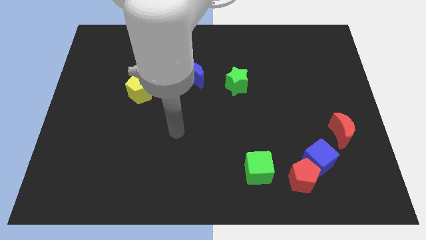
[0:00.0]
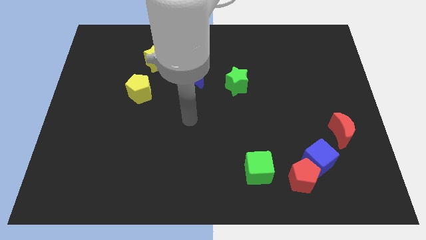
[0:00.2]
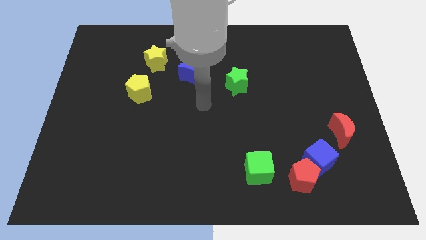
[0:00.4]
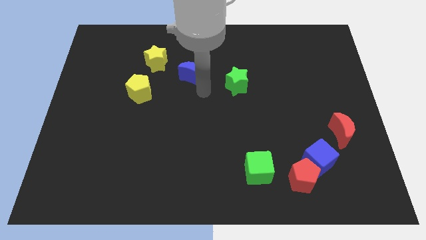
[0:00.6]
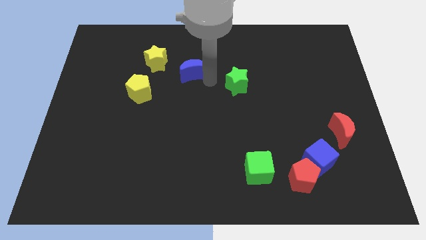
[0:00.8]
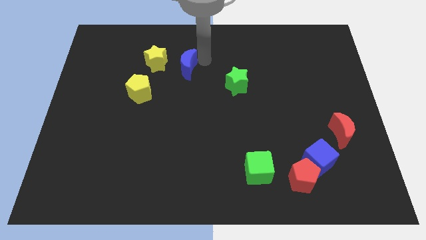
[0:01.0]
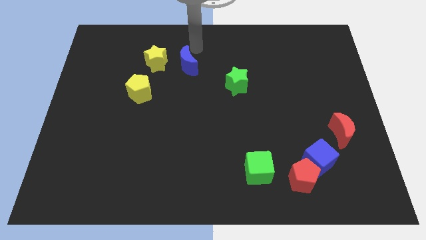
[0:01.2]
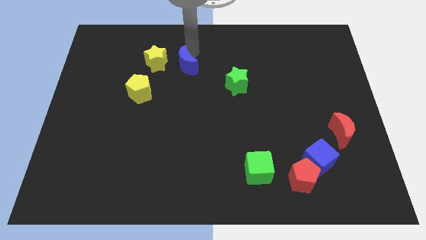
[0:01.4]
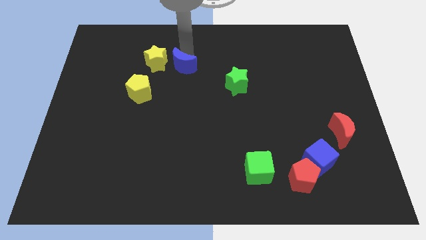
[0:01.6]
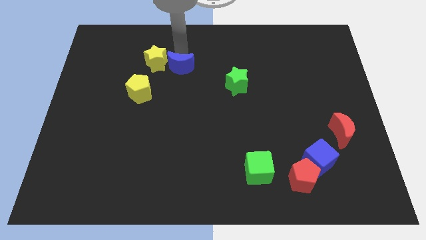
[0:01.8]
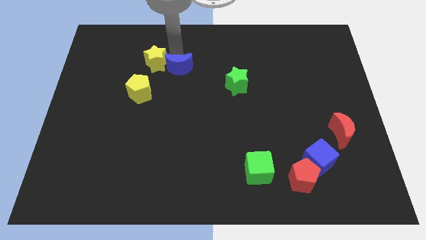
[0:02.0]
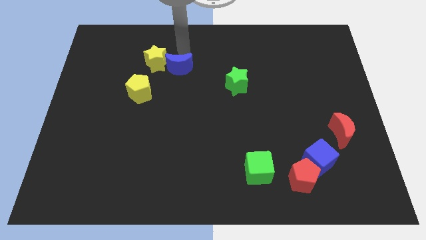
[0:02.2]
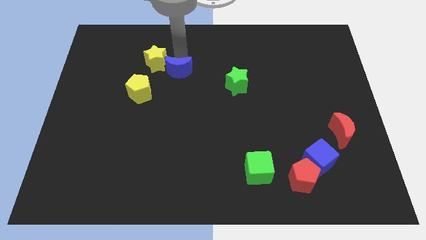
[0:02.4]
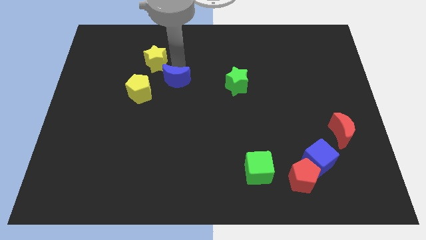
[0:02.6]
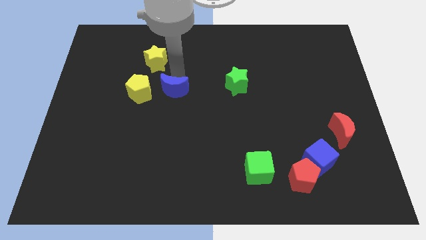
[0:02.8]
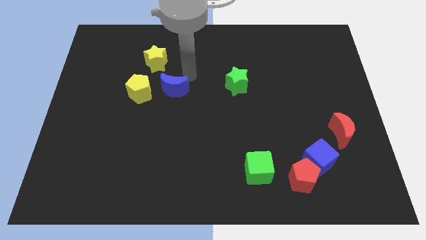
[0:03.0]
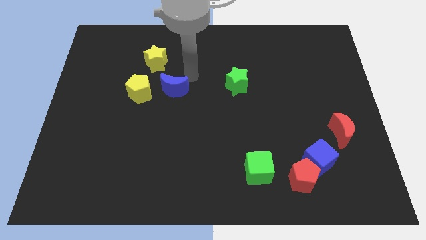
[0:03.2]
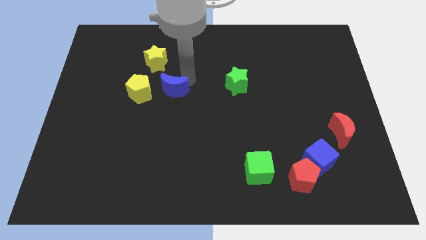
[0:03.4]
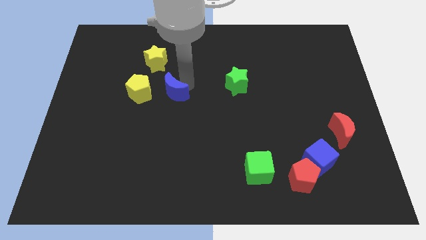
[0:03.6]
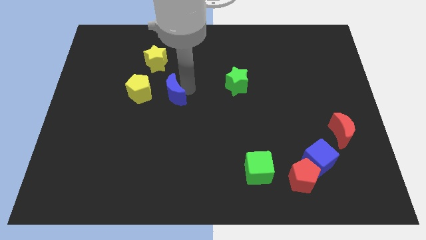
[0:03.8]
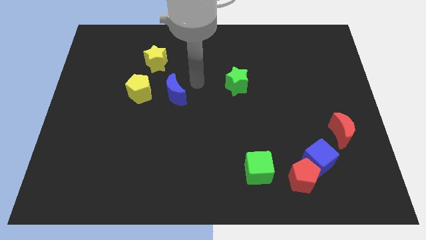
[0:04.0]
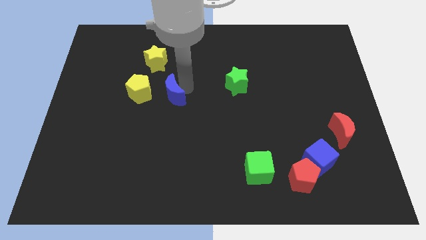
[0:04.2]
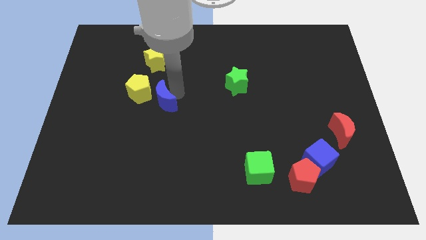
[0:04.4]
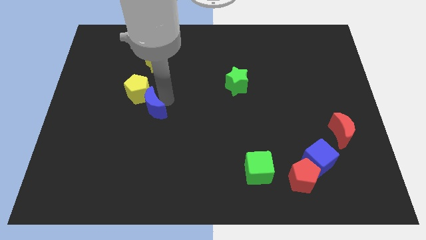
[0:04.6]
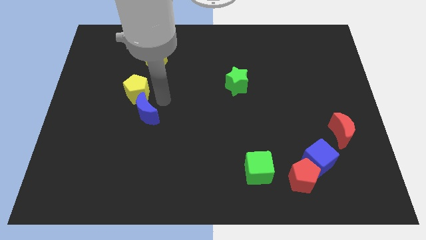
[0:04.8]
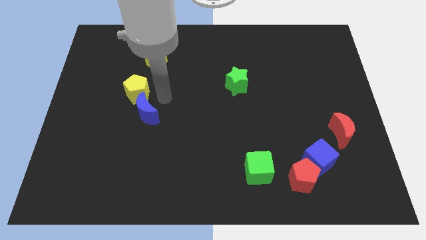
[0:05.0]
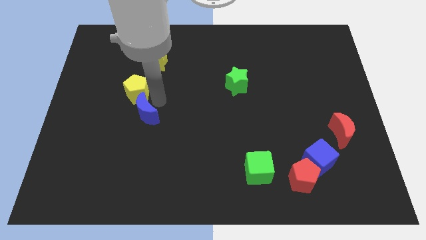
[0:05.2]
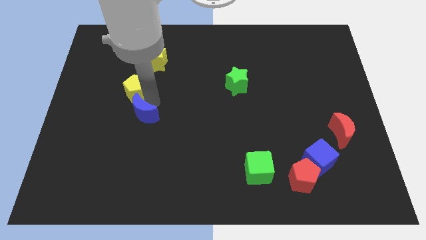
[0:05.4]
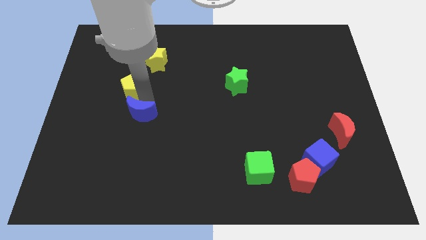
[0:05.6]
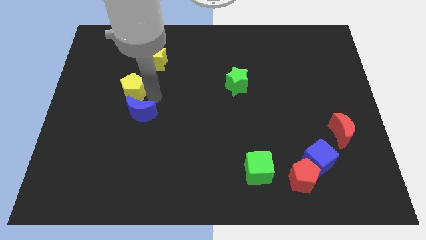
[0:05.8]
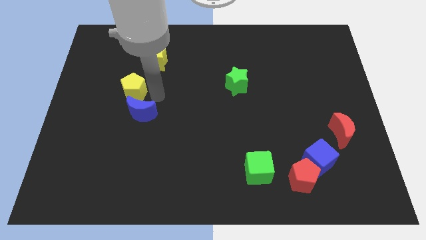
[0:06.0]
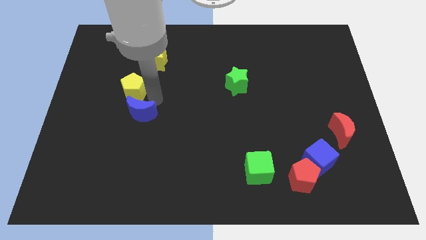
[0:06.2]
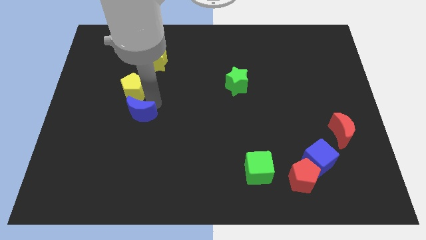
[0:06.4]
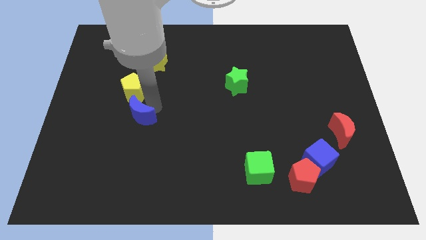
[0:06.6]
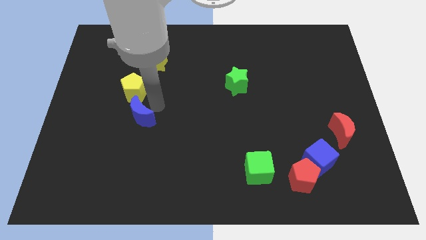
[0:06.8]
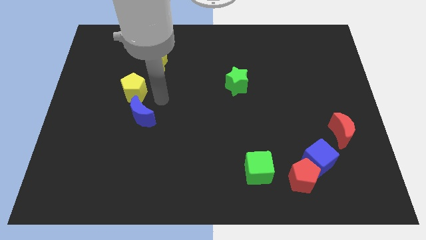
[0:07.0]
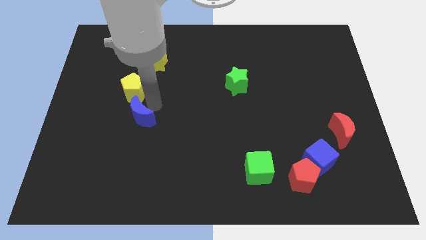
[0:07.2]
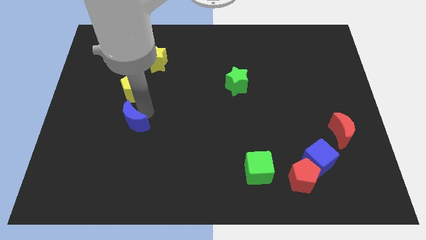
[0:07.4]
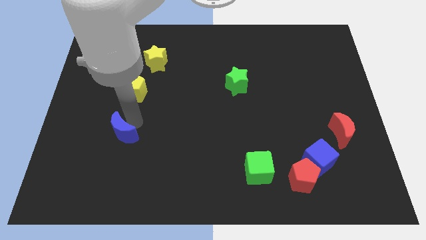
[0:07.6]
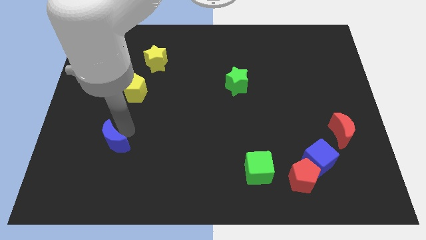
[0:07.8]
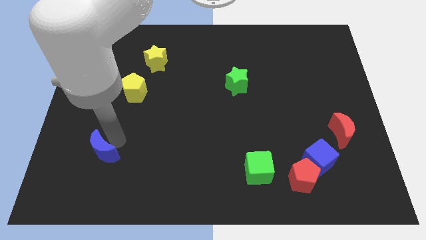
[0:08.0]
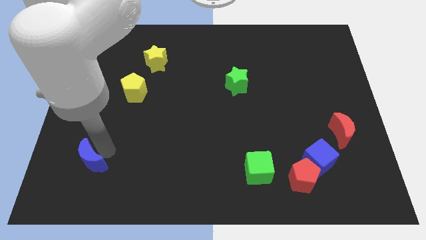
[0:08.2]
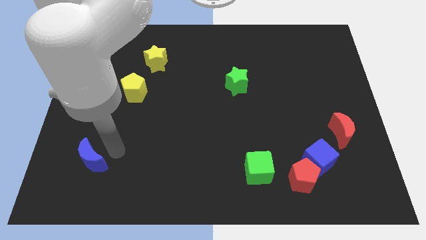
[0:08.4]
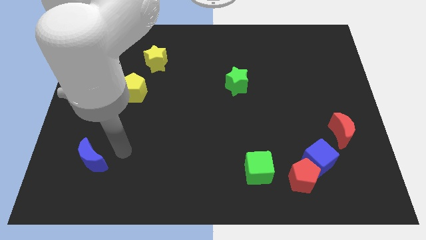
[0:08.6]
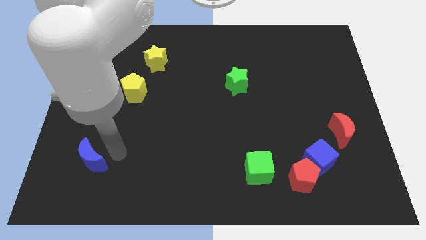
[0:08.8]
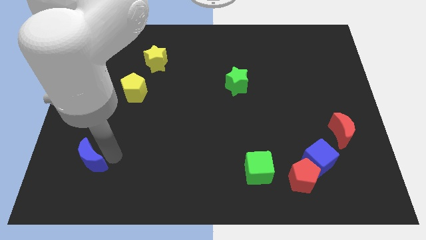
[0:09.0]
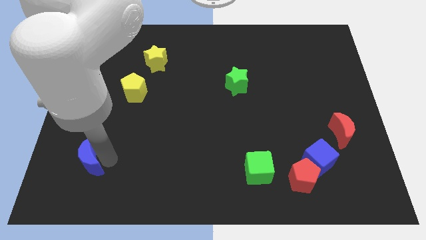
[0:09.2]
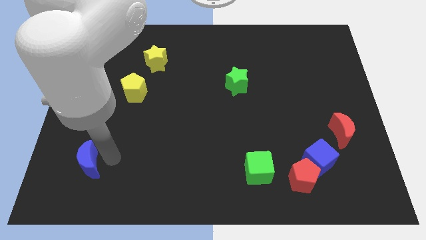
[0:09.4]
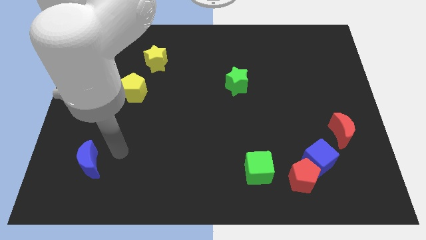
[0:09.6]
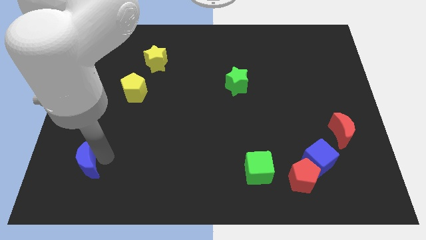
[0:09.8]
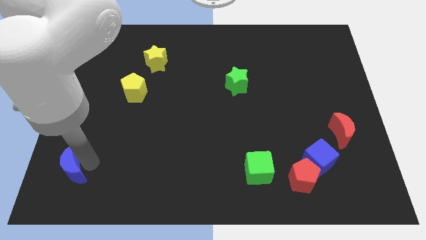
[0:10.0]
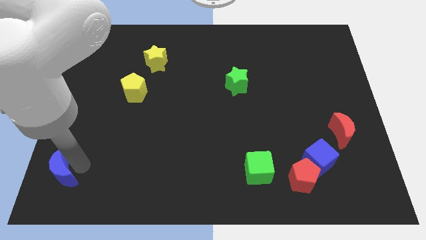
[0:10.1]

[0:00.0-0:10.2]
move the blue moon to the bottom left corner

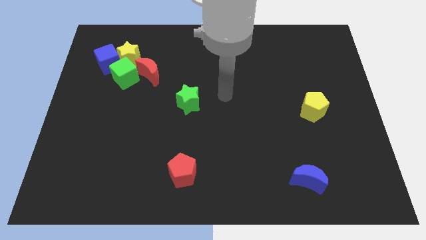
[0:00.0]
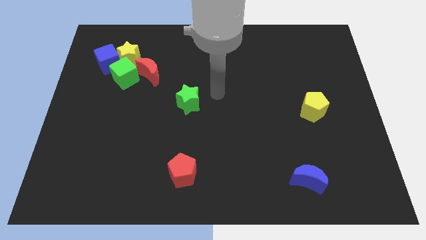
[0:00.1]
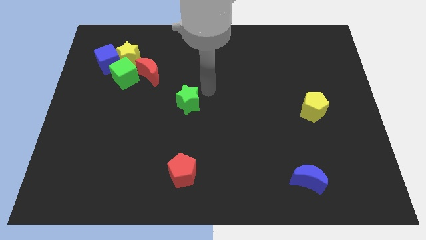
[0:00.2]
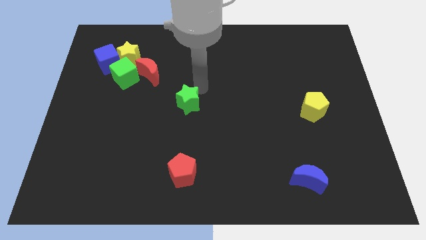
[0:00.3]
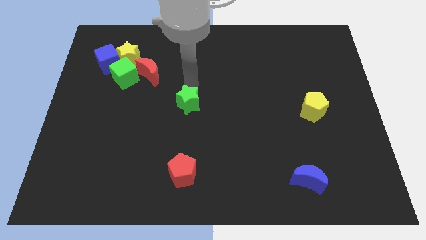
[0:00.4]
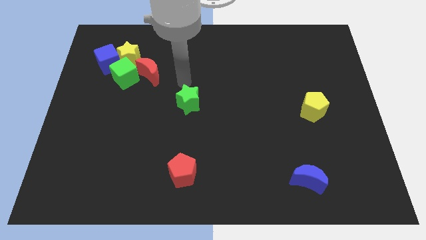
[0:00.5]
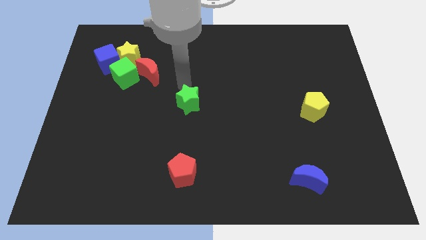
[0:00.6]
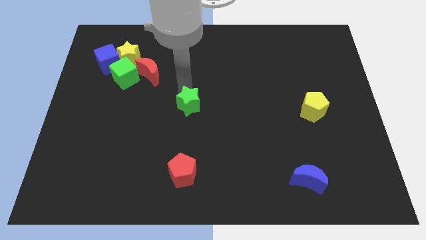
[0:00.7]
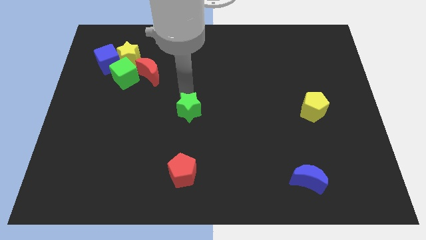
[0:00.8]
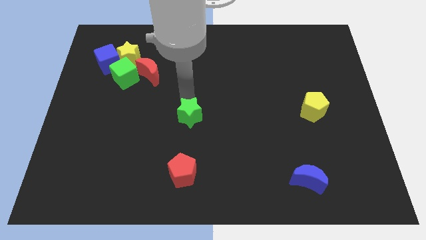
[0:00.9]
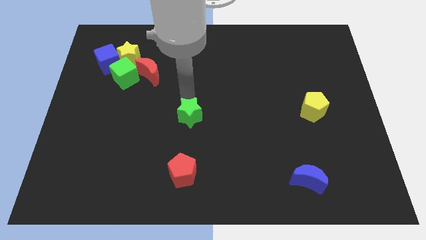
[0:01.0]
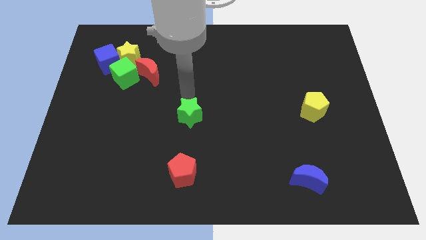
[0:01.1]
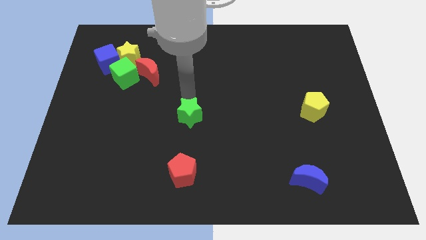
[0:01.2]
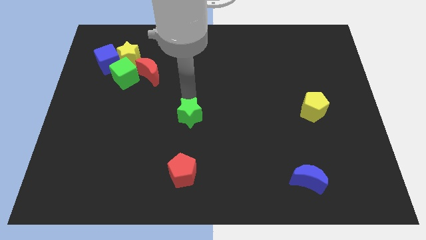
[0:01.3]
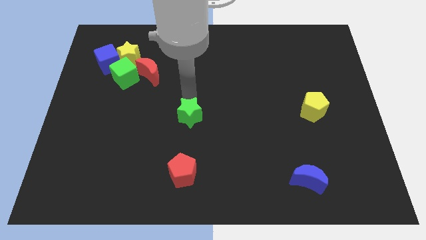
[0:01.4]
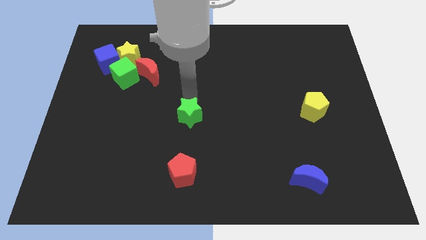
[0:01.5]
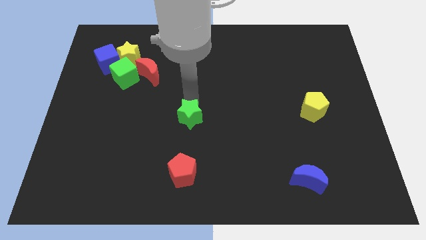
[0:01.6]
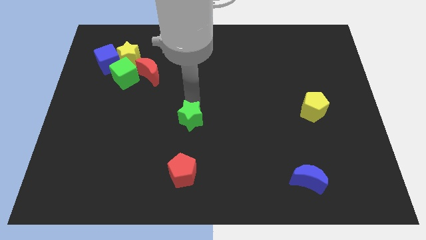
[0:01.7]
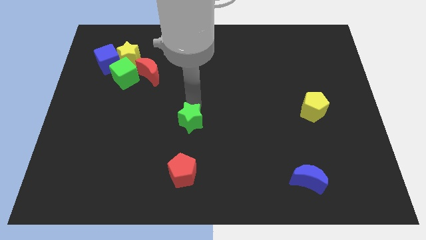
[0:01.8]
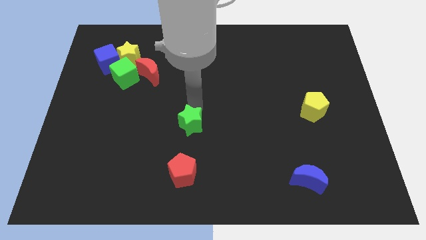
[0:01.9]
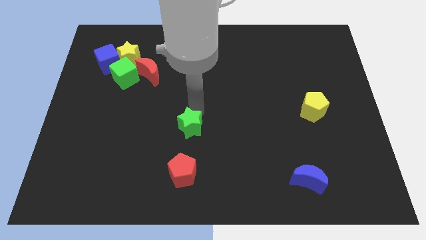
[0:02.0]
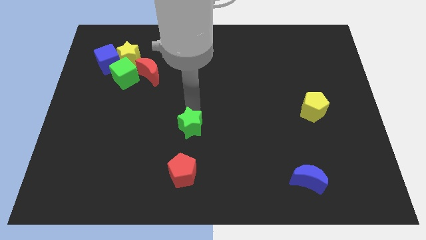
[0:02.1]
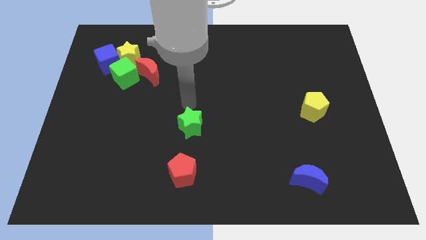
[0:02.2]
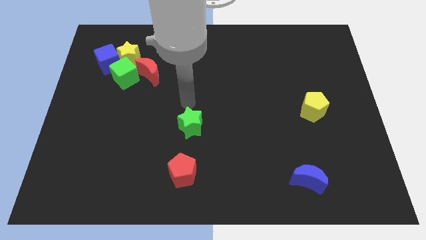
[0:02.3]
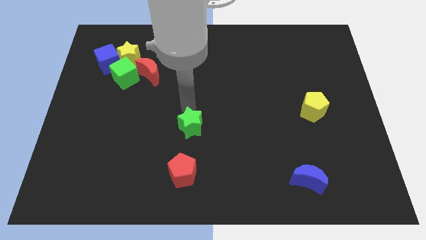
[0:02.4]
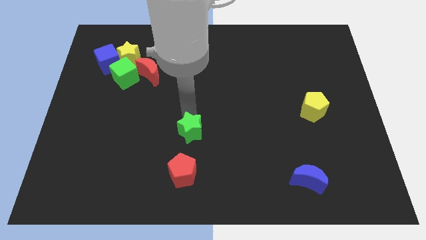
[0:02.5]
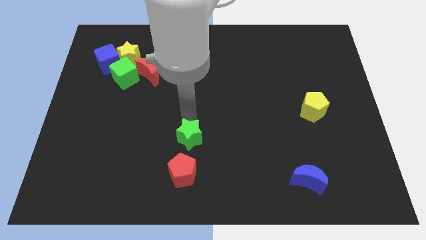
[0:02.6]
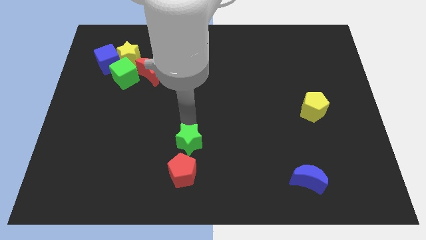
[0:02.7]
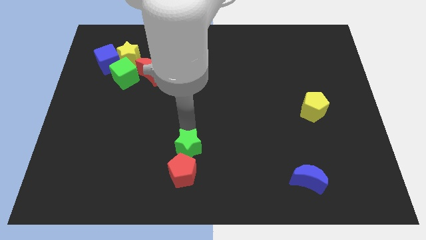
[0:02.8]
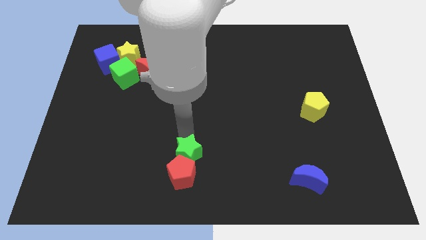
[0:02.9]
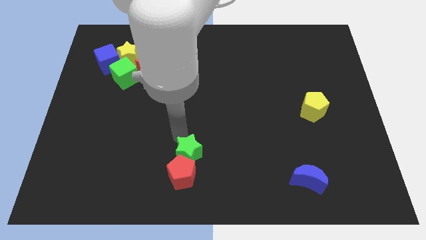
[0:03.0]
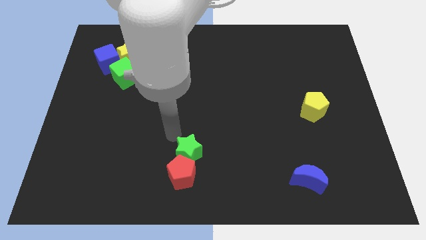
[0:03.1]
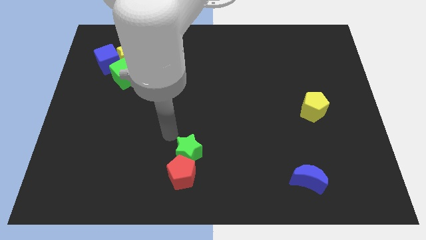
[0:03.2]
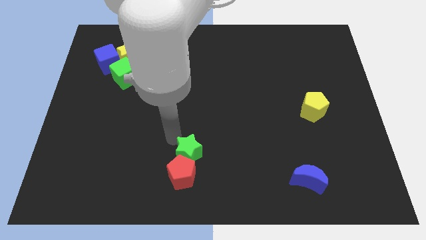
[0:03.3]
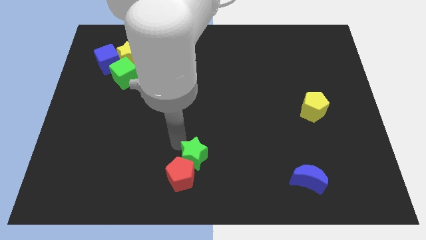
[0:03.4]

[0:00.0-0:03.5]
put the green star to the bottom
